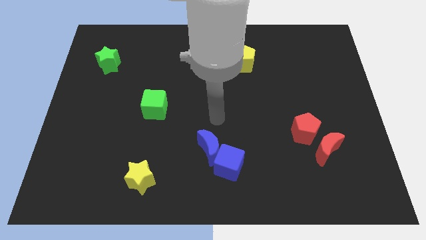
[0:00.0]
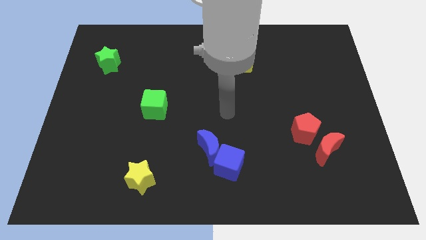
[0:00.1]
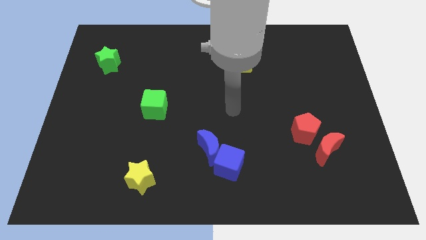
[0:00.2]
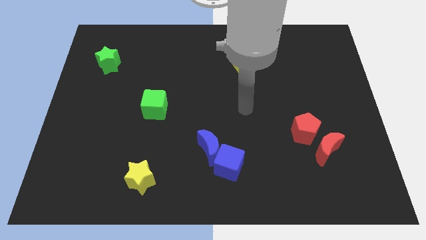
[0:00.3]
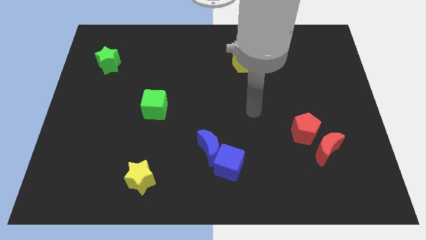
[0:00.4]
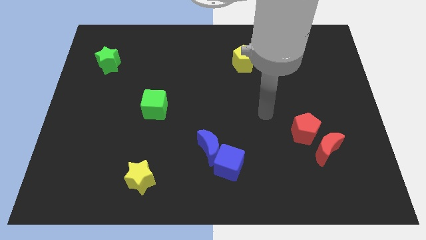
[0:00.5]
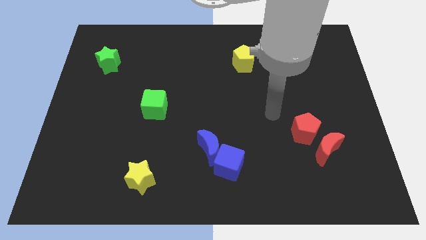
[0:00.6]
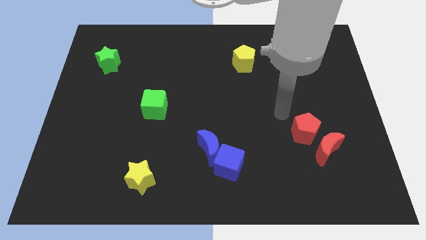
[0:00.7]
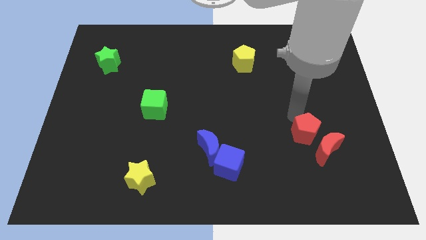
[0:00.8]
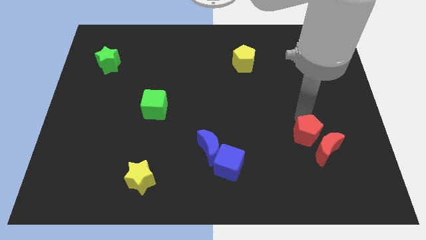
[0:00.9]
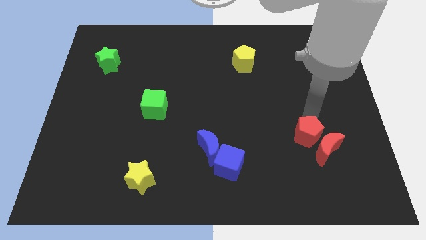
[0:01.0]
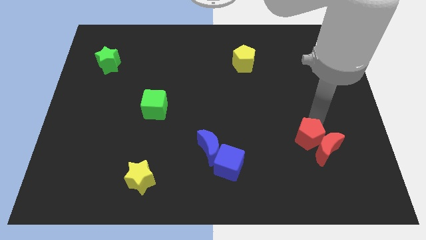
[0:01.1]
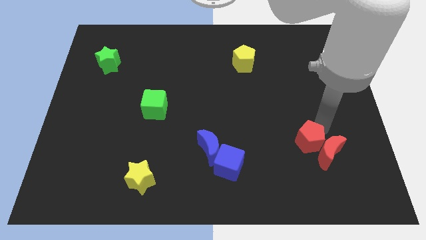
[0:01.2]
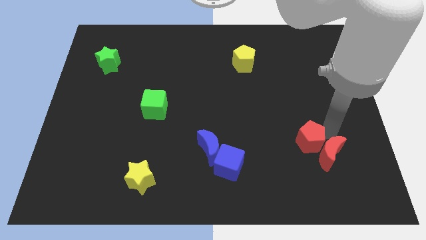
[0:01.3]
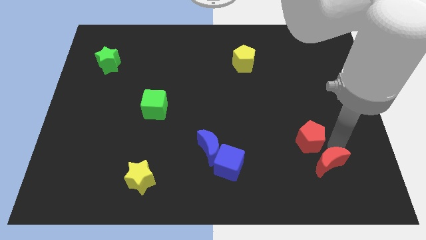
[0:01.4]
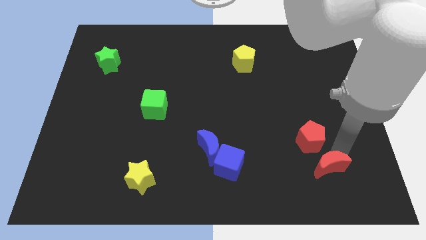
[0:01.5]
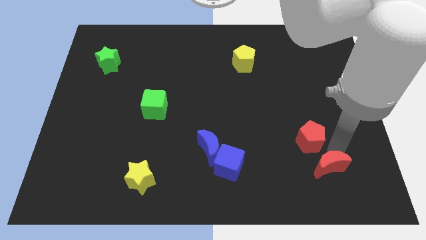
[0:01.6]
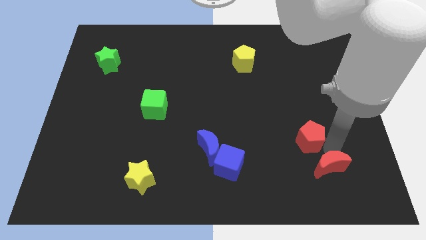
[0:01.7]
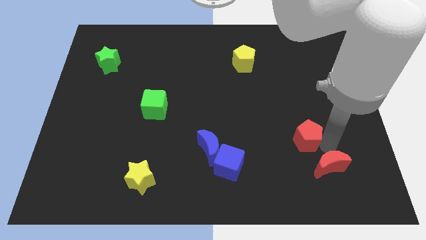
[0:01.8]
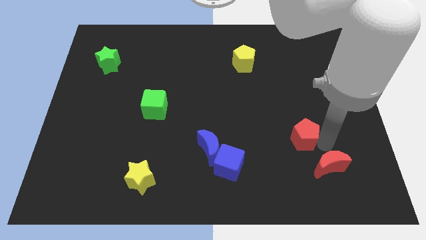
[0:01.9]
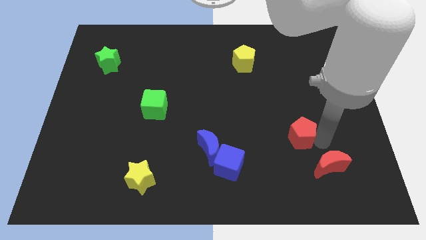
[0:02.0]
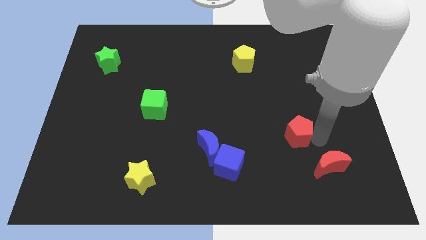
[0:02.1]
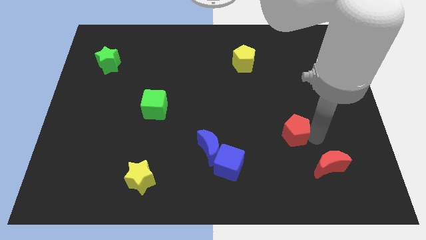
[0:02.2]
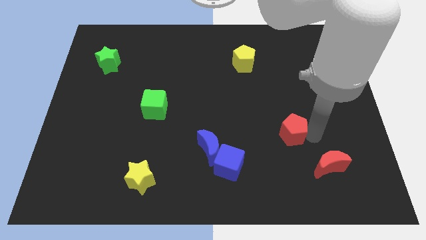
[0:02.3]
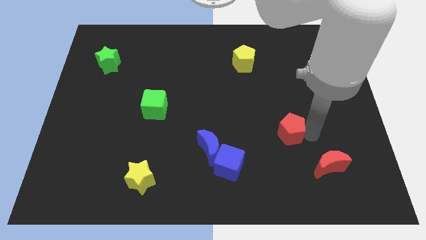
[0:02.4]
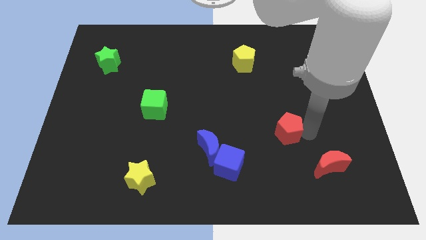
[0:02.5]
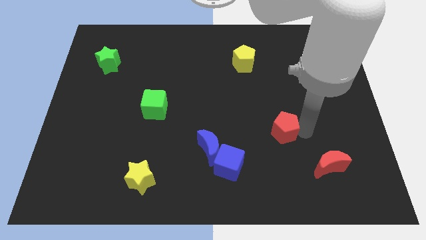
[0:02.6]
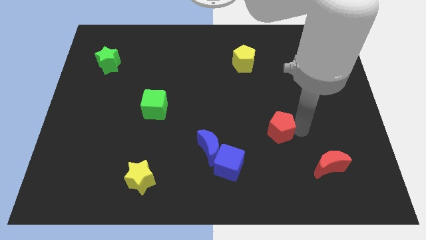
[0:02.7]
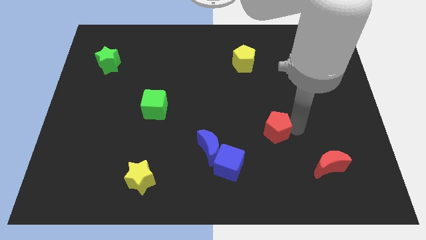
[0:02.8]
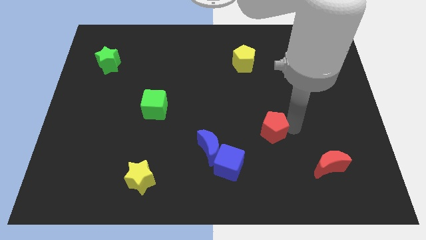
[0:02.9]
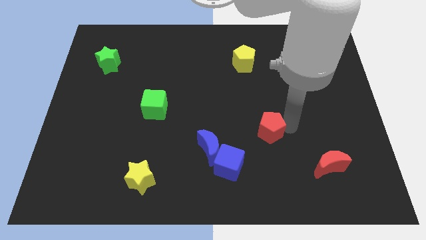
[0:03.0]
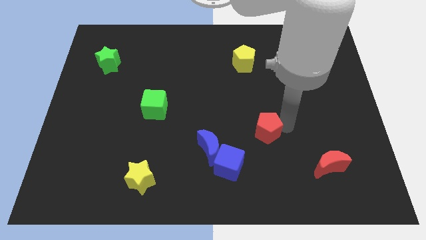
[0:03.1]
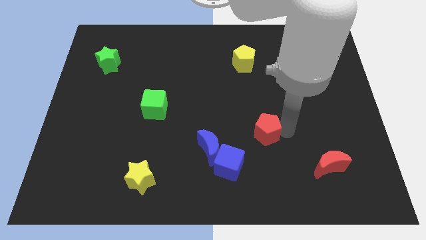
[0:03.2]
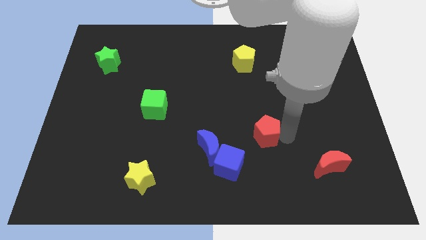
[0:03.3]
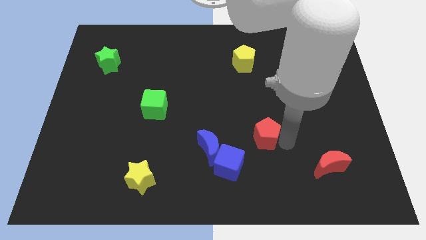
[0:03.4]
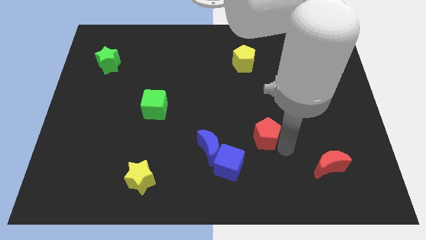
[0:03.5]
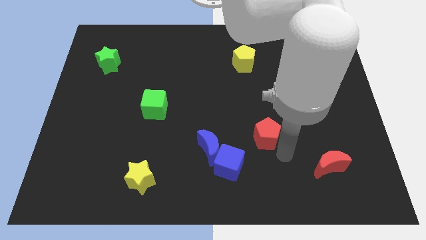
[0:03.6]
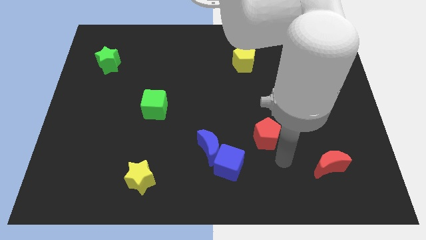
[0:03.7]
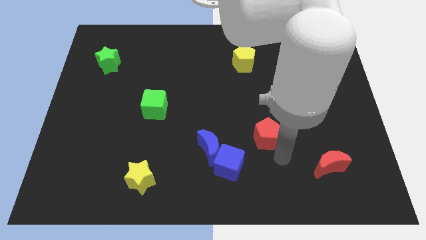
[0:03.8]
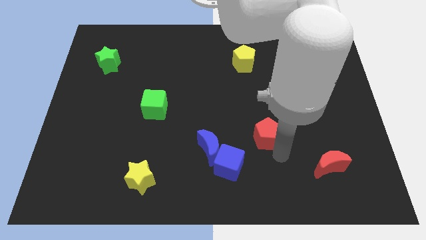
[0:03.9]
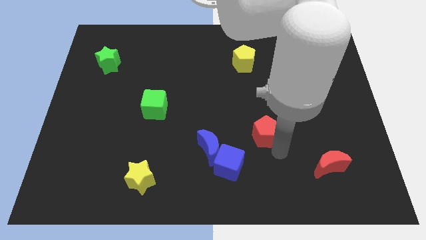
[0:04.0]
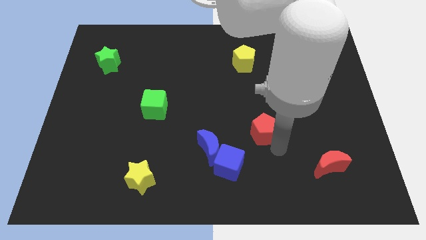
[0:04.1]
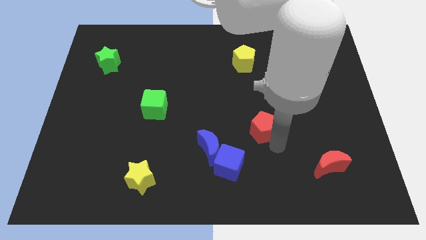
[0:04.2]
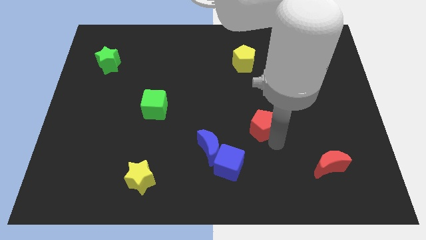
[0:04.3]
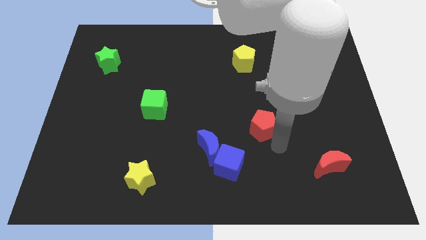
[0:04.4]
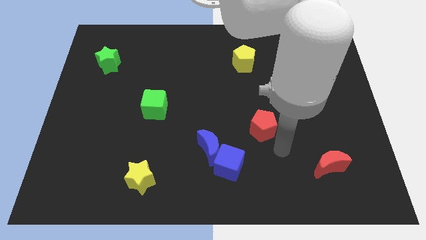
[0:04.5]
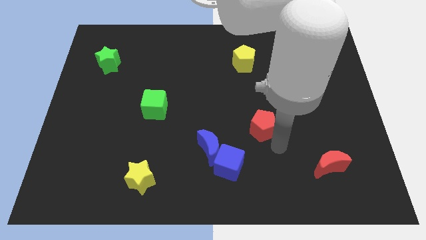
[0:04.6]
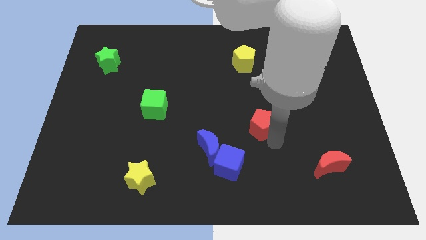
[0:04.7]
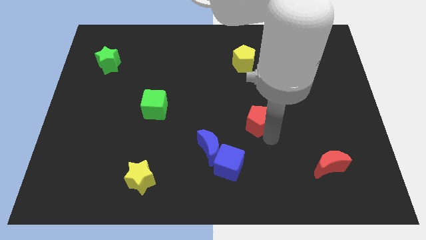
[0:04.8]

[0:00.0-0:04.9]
put the red pentagon to the middle

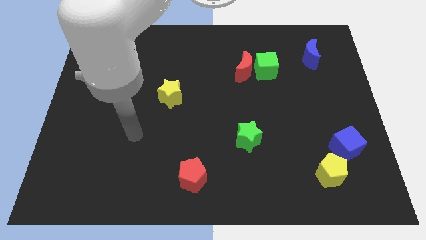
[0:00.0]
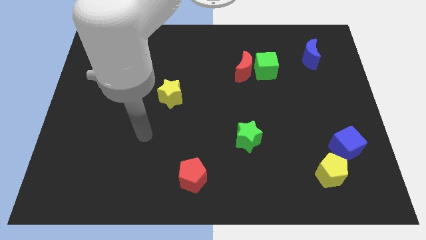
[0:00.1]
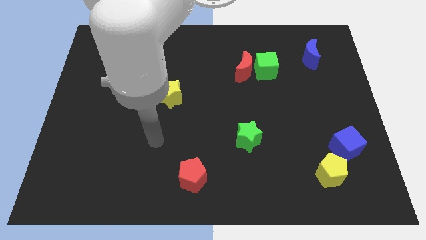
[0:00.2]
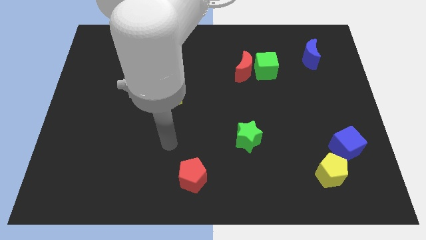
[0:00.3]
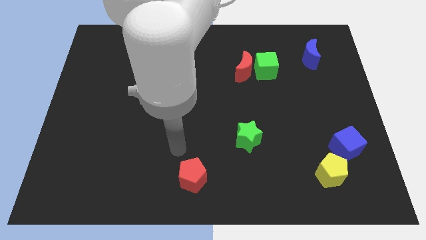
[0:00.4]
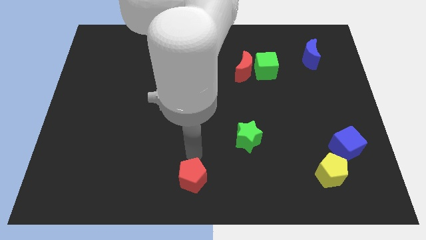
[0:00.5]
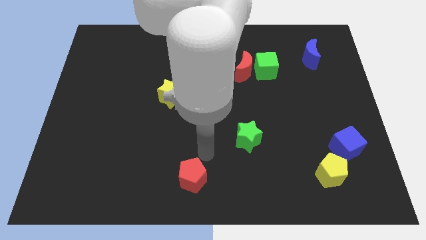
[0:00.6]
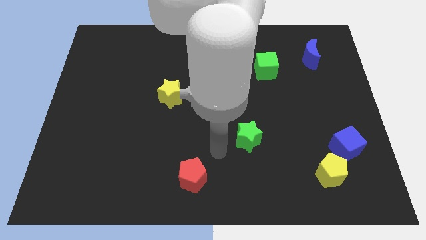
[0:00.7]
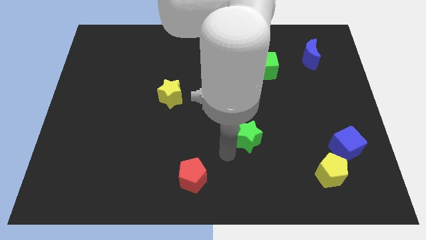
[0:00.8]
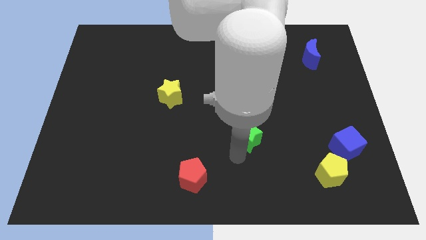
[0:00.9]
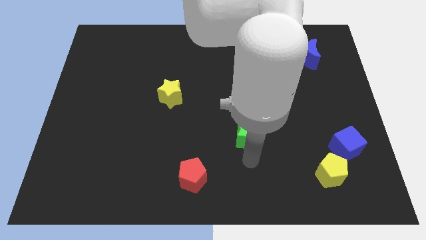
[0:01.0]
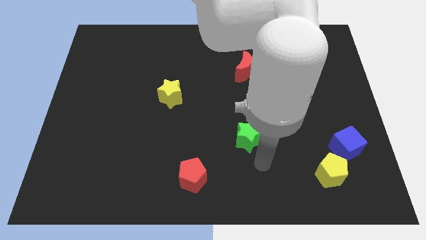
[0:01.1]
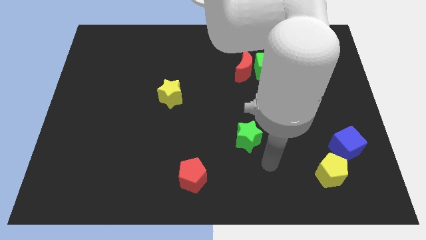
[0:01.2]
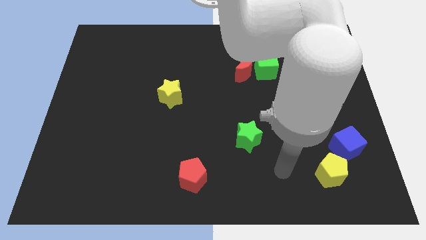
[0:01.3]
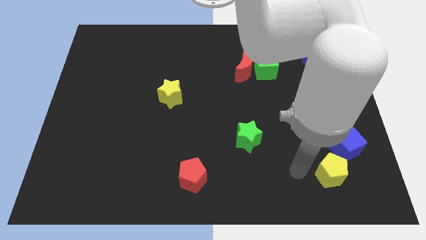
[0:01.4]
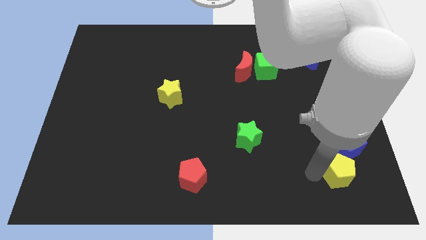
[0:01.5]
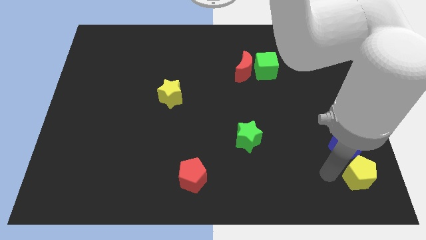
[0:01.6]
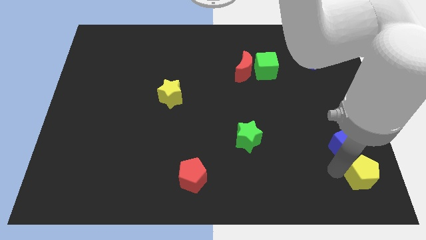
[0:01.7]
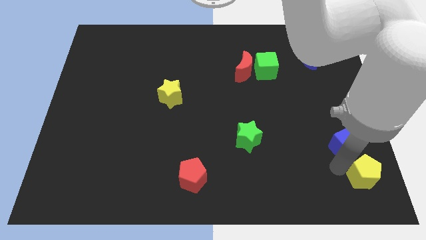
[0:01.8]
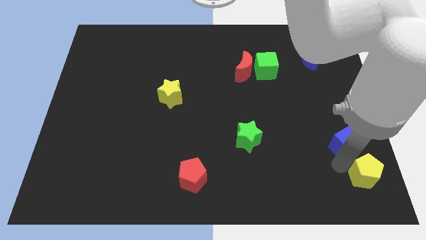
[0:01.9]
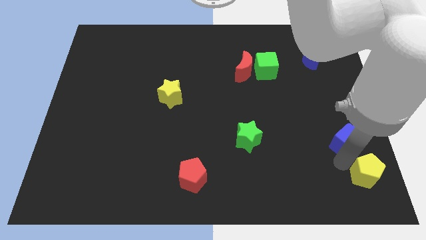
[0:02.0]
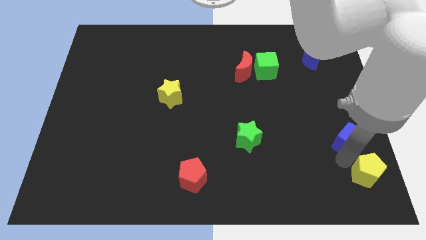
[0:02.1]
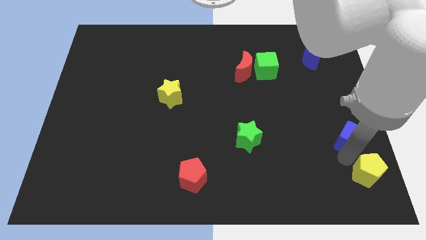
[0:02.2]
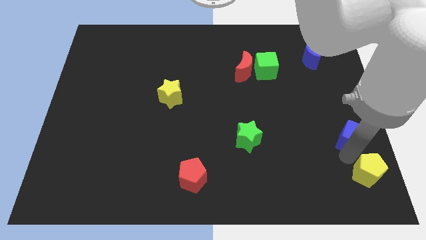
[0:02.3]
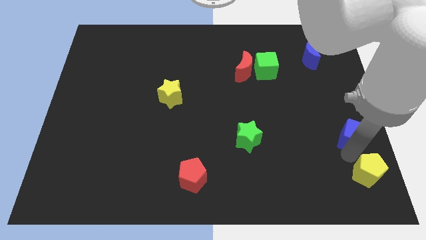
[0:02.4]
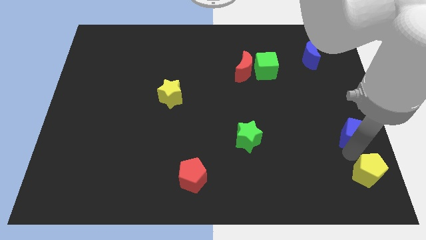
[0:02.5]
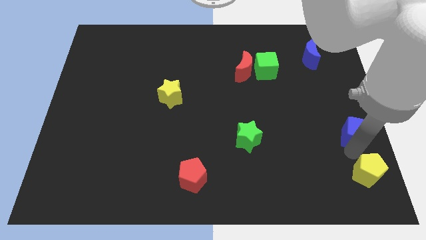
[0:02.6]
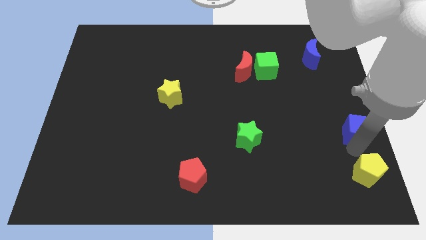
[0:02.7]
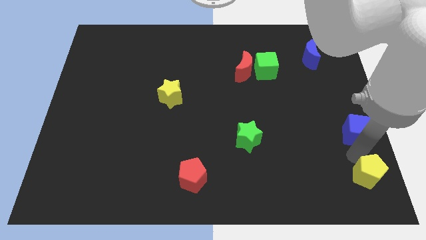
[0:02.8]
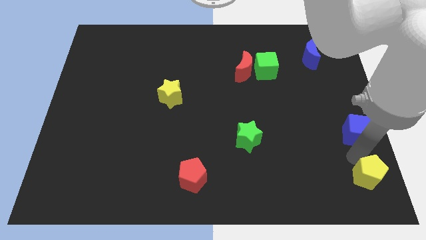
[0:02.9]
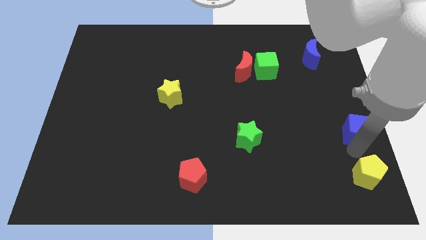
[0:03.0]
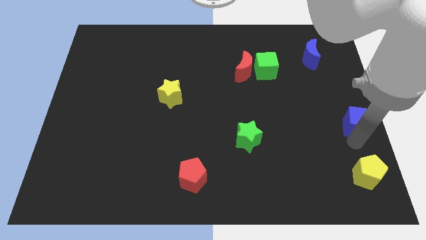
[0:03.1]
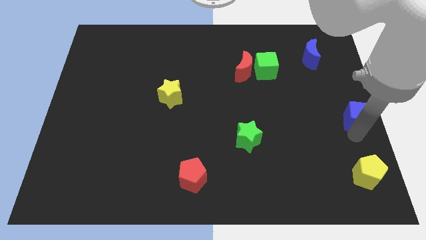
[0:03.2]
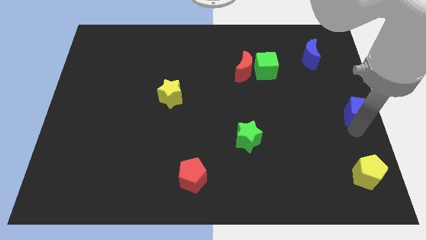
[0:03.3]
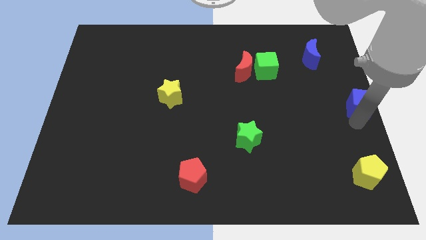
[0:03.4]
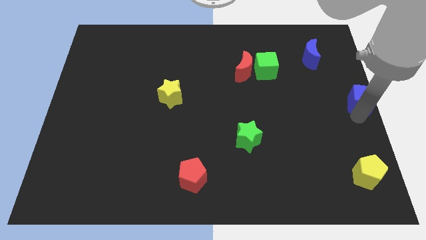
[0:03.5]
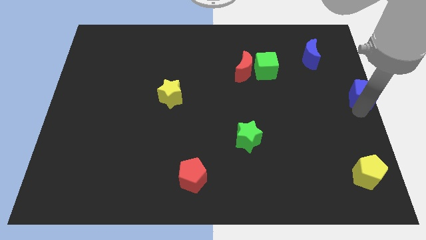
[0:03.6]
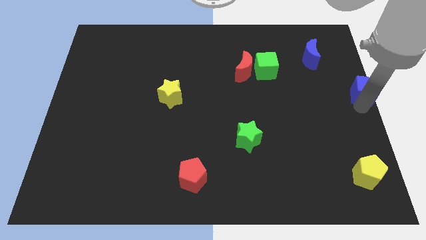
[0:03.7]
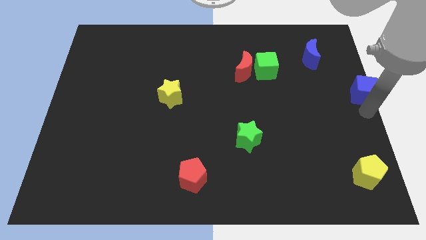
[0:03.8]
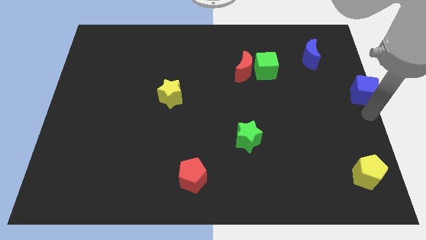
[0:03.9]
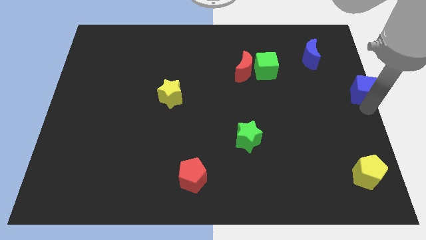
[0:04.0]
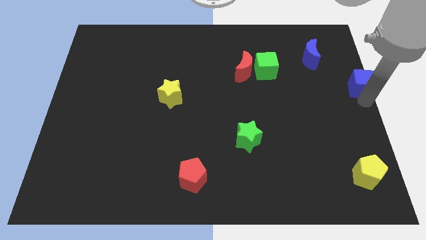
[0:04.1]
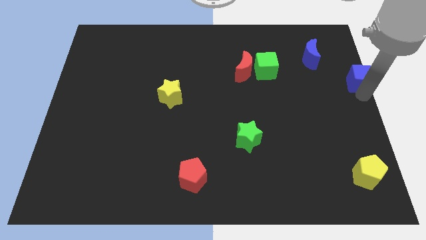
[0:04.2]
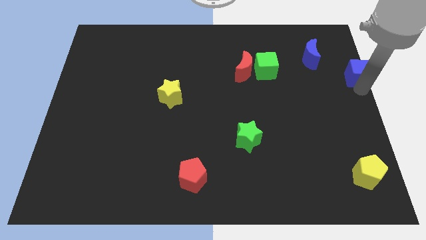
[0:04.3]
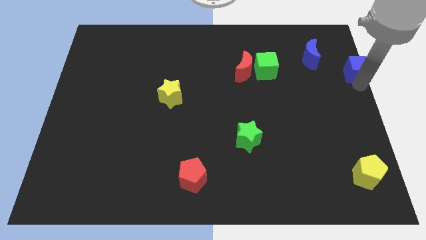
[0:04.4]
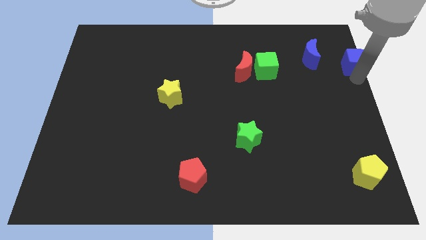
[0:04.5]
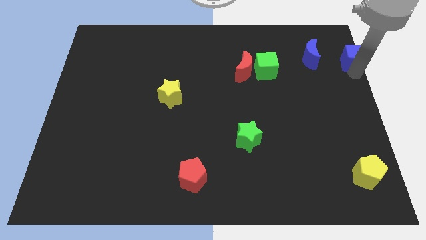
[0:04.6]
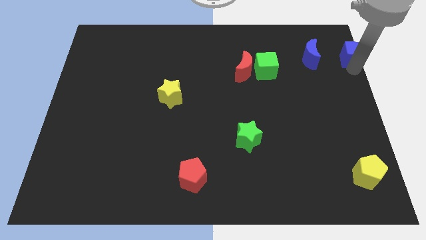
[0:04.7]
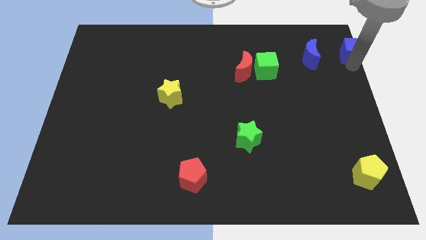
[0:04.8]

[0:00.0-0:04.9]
put the blue cube to the upper right corner
